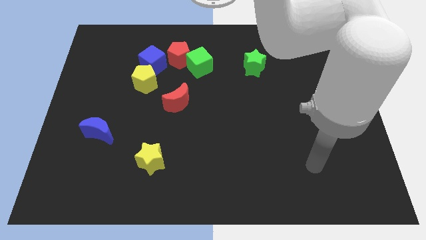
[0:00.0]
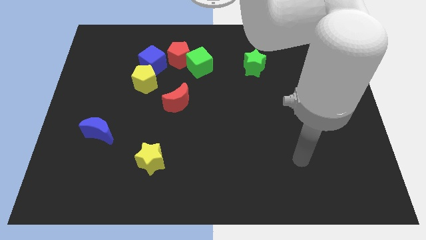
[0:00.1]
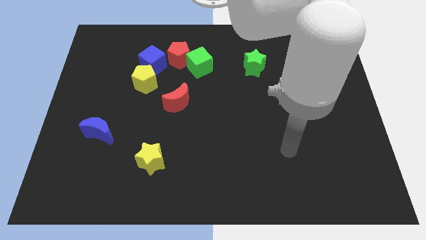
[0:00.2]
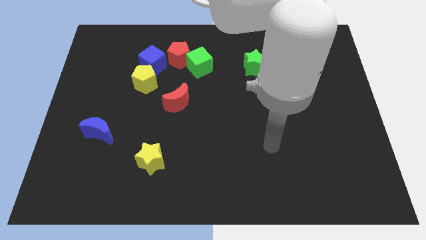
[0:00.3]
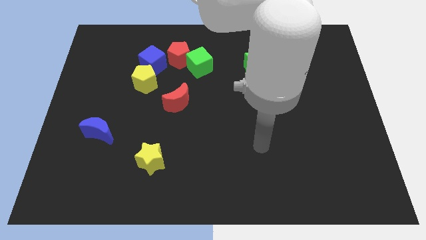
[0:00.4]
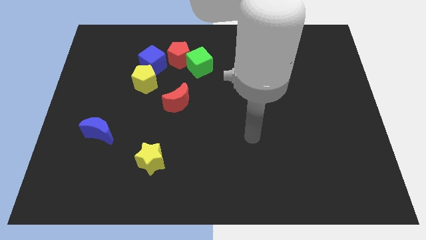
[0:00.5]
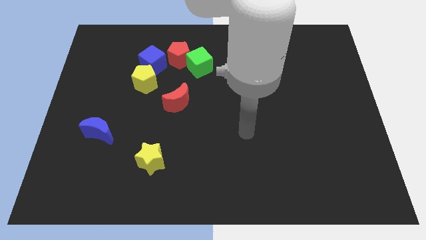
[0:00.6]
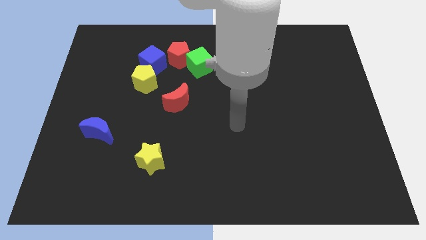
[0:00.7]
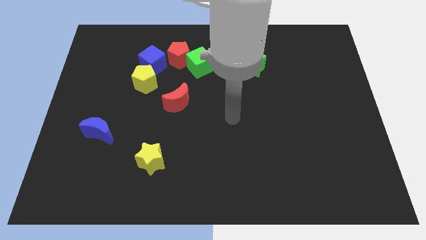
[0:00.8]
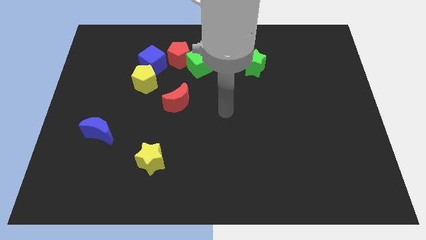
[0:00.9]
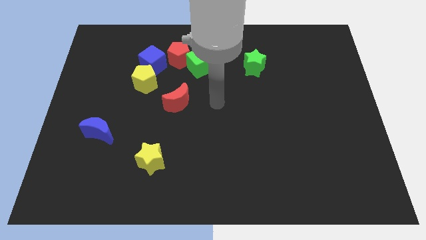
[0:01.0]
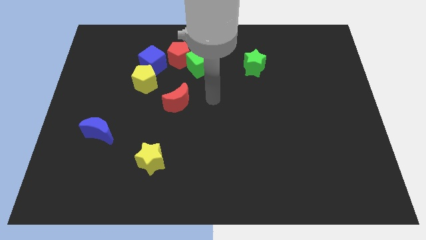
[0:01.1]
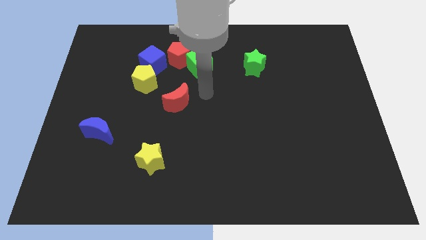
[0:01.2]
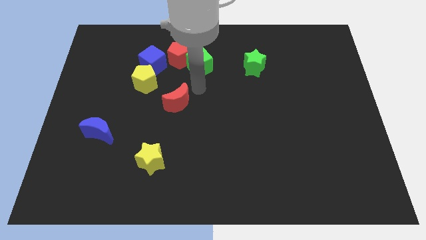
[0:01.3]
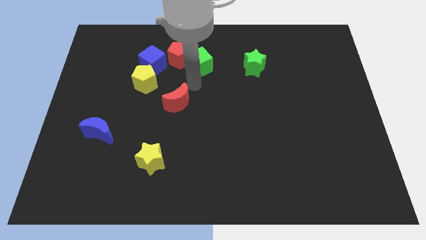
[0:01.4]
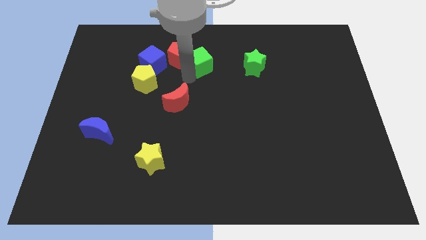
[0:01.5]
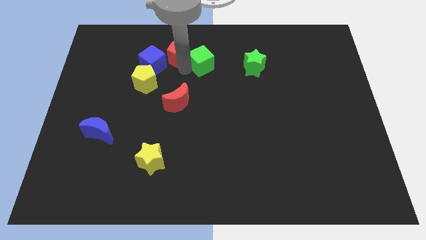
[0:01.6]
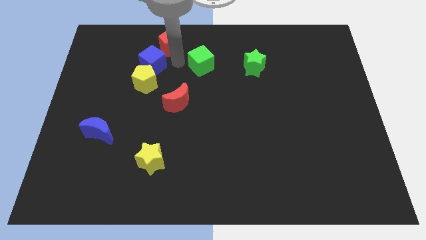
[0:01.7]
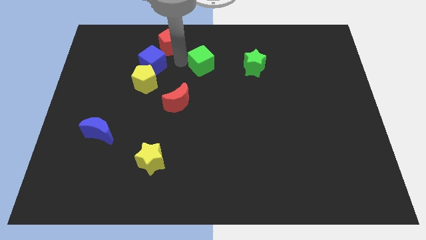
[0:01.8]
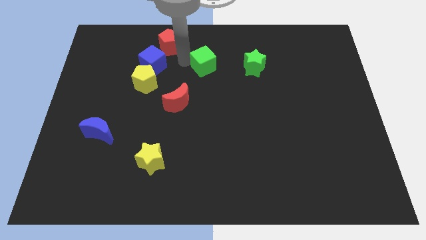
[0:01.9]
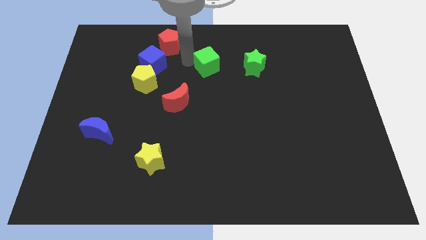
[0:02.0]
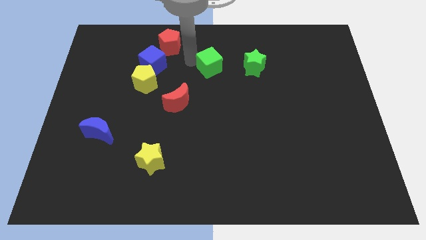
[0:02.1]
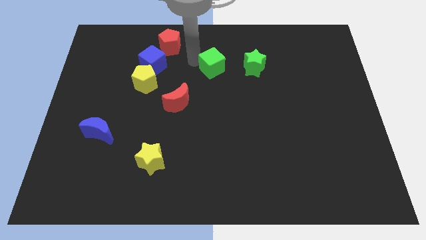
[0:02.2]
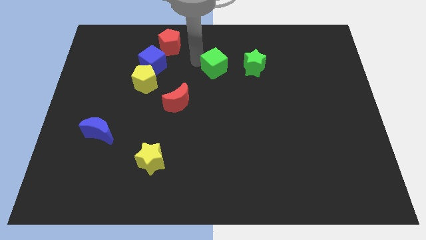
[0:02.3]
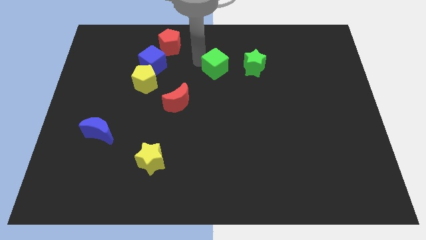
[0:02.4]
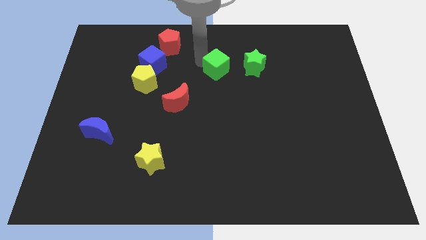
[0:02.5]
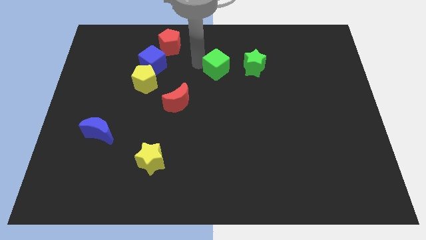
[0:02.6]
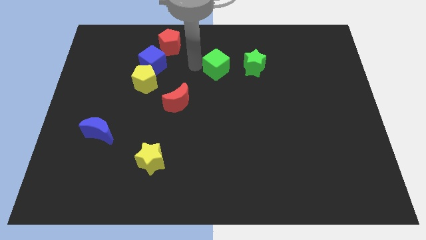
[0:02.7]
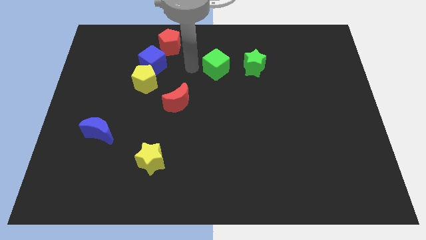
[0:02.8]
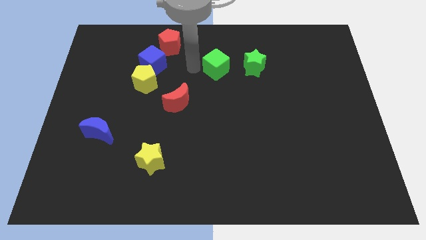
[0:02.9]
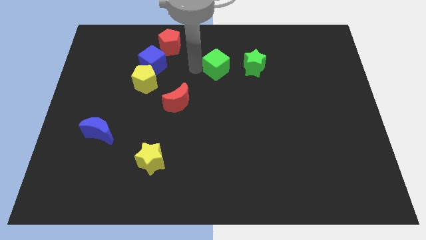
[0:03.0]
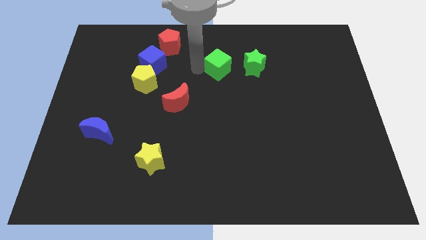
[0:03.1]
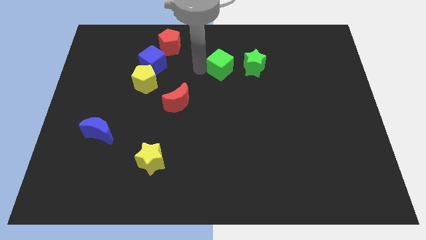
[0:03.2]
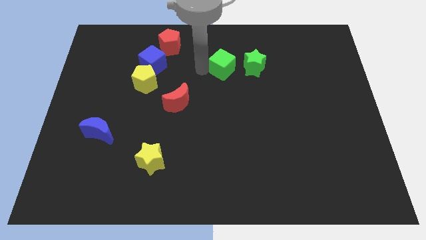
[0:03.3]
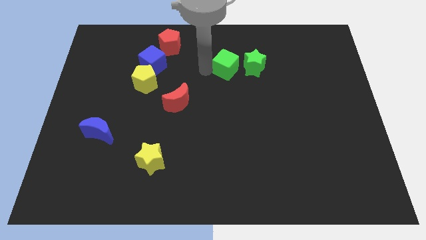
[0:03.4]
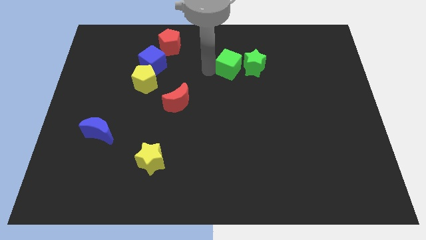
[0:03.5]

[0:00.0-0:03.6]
slide the green cube close to the green star

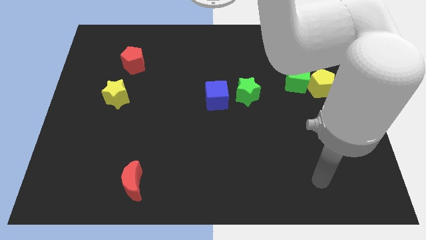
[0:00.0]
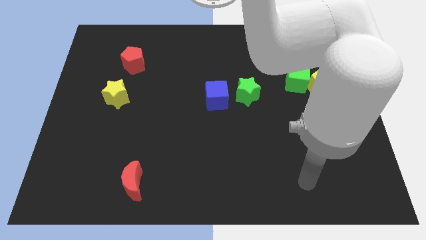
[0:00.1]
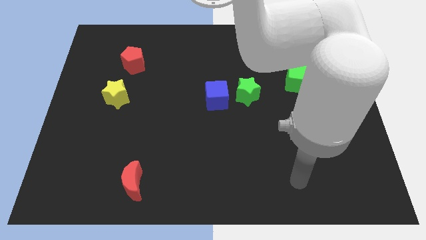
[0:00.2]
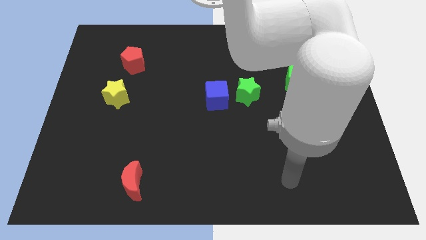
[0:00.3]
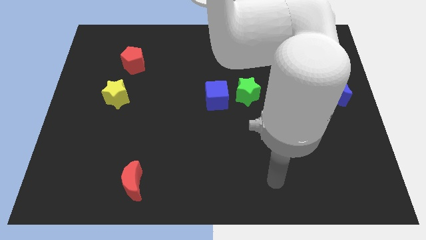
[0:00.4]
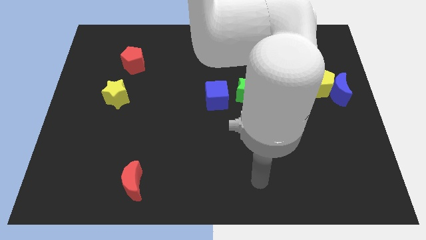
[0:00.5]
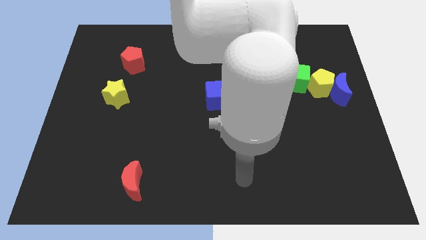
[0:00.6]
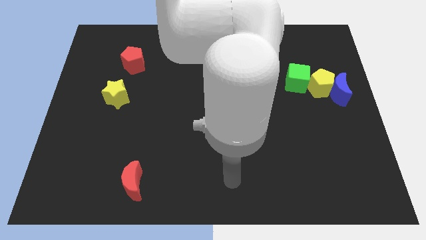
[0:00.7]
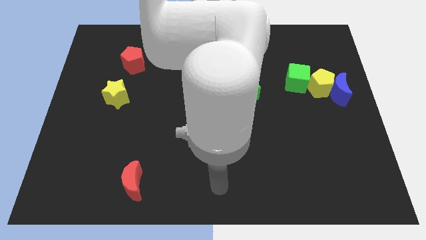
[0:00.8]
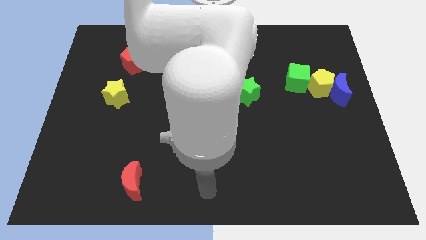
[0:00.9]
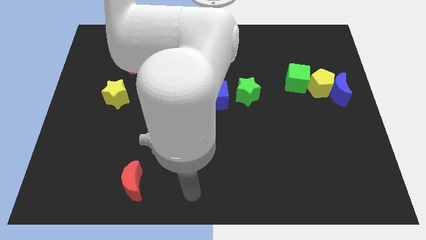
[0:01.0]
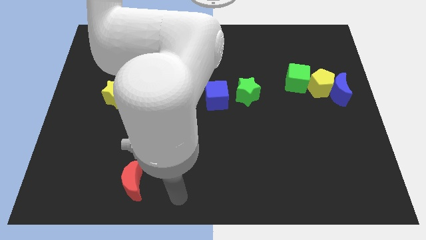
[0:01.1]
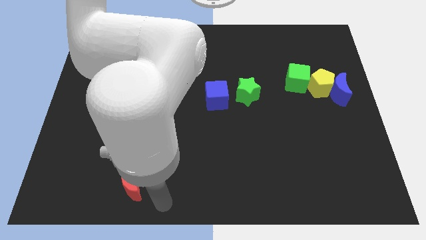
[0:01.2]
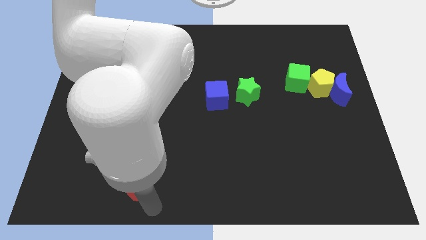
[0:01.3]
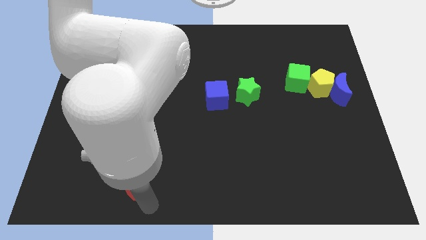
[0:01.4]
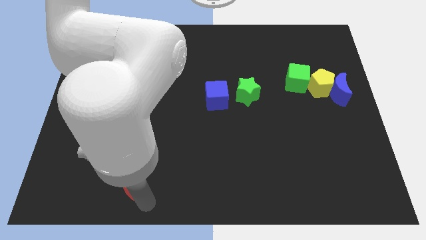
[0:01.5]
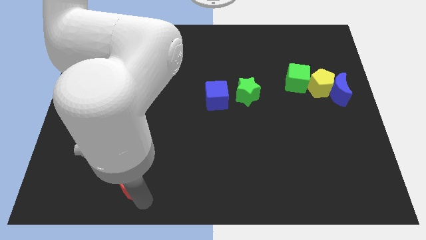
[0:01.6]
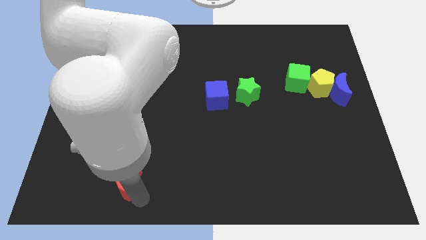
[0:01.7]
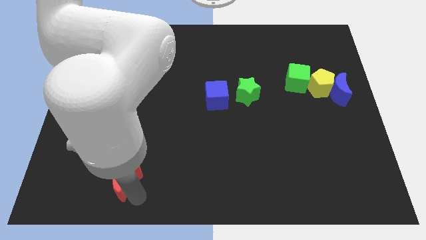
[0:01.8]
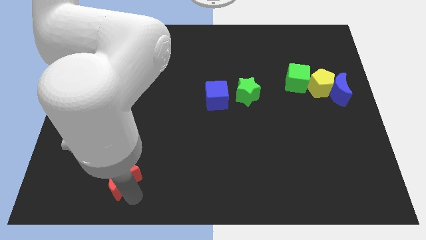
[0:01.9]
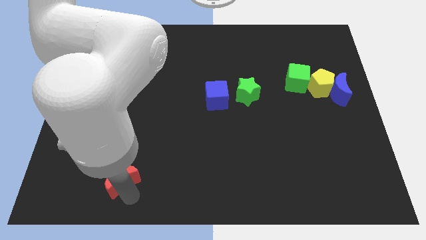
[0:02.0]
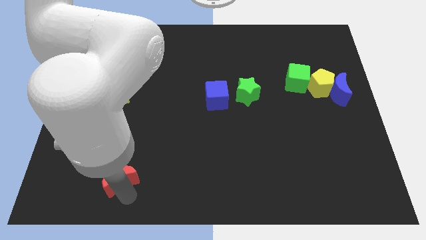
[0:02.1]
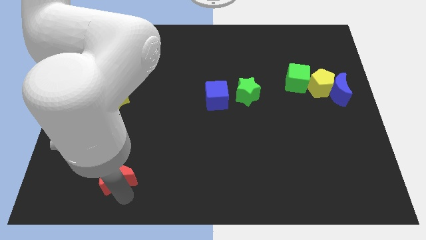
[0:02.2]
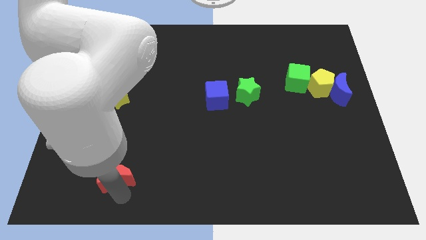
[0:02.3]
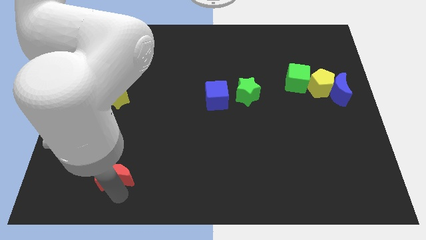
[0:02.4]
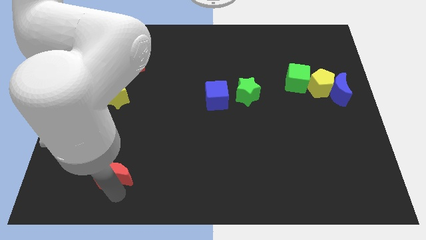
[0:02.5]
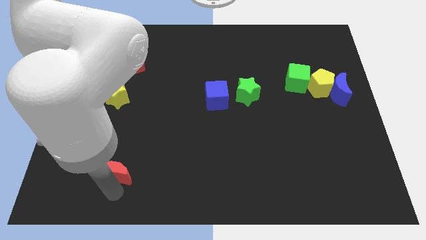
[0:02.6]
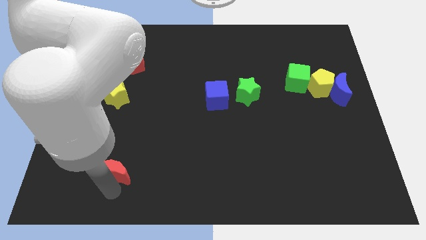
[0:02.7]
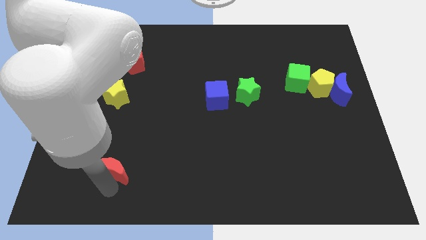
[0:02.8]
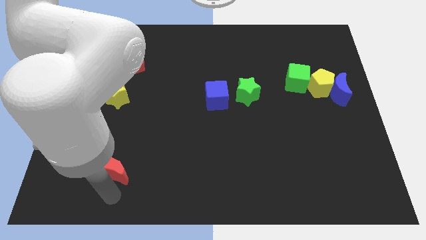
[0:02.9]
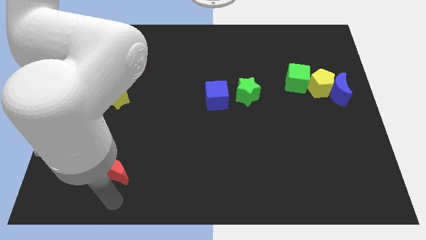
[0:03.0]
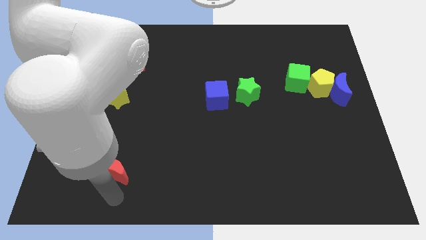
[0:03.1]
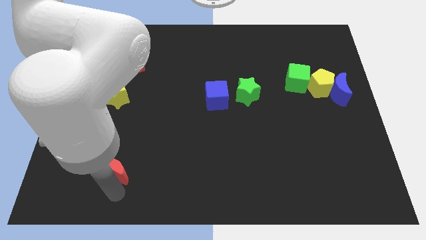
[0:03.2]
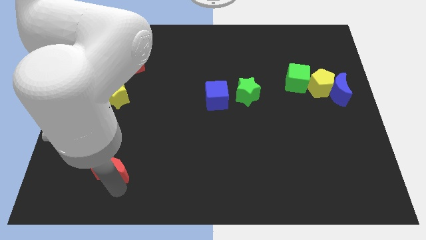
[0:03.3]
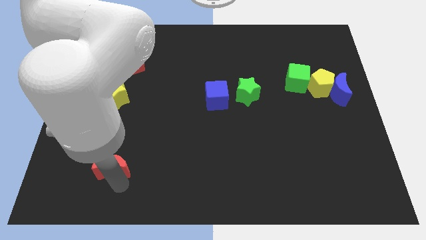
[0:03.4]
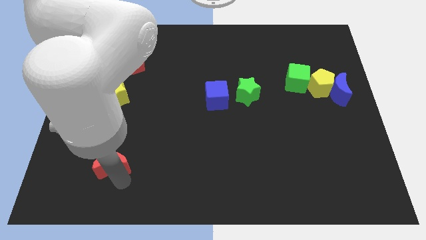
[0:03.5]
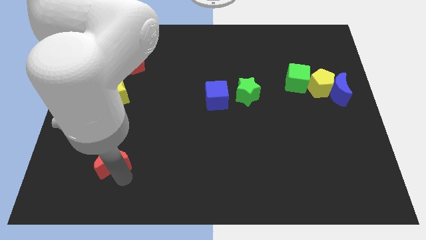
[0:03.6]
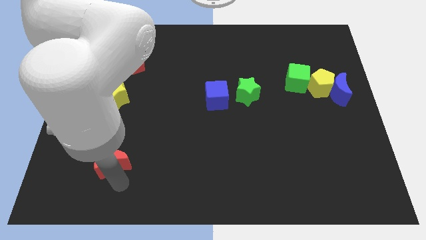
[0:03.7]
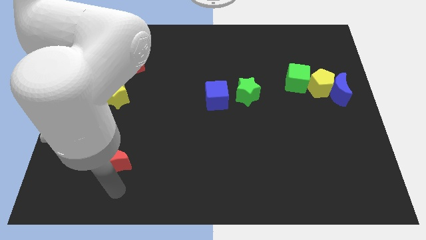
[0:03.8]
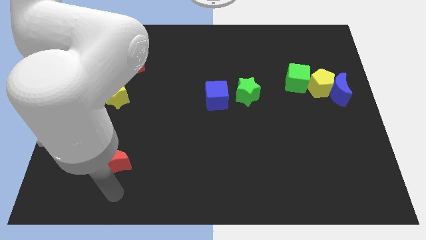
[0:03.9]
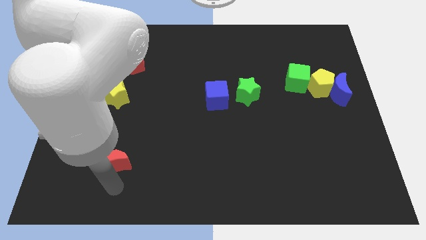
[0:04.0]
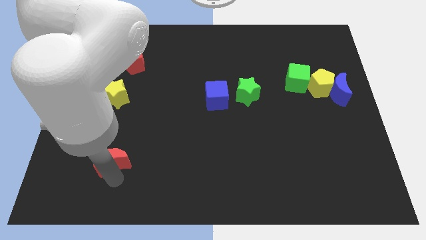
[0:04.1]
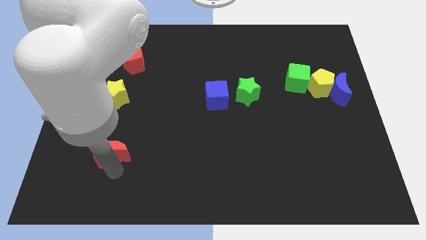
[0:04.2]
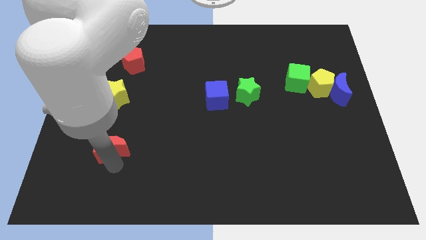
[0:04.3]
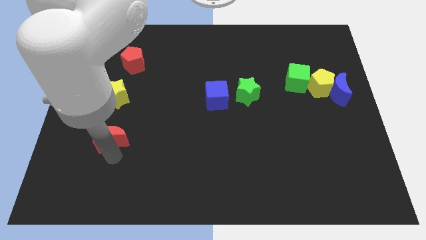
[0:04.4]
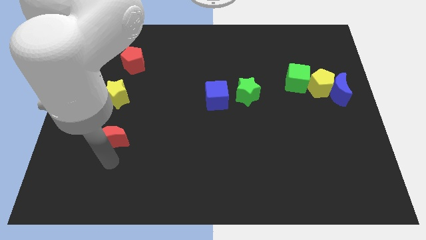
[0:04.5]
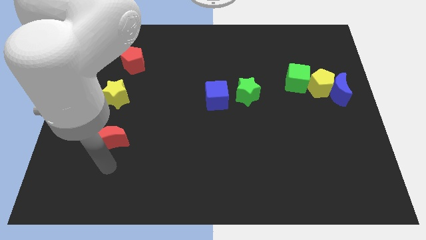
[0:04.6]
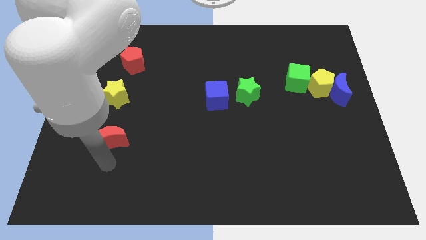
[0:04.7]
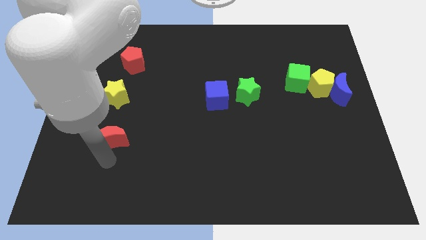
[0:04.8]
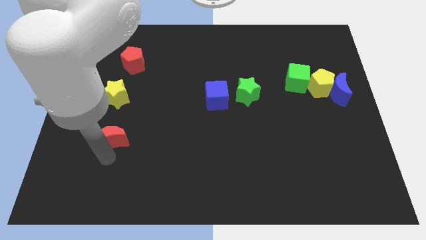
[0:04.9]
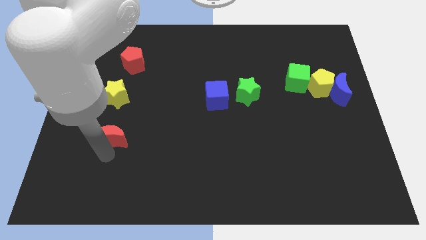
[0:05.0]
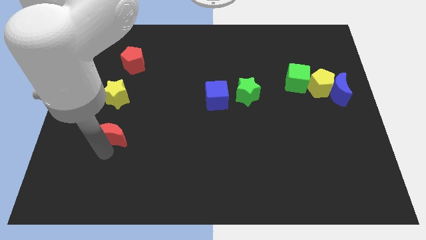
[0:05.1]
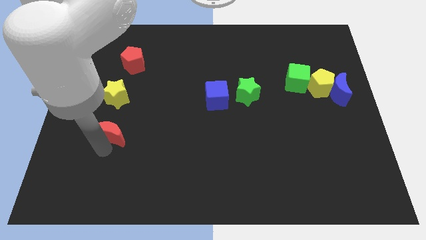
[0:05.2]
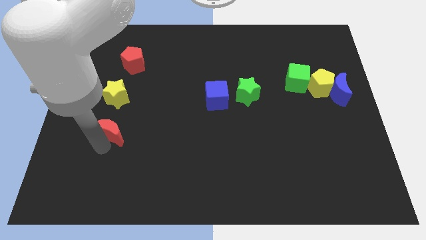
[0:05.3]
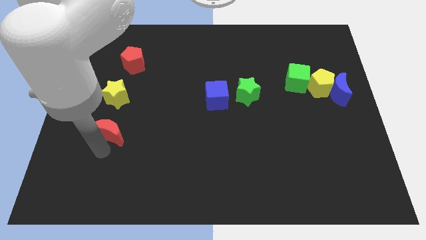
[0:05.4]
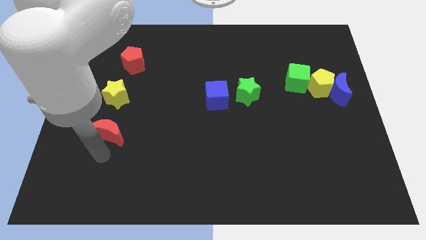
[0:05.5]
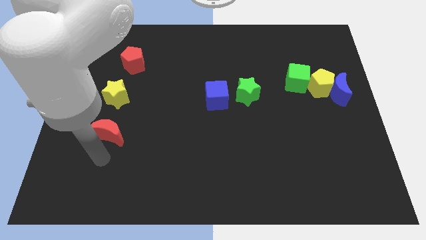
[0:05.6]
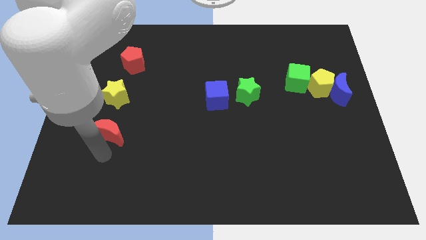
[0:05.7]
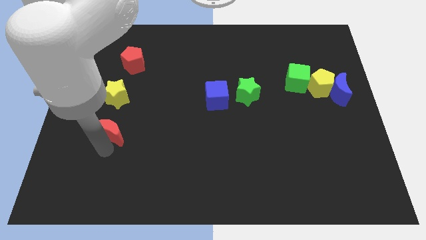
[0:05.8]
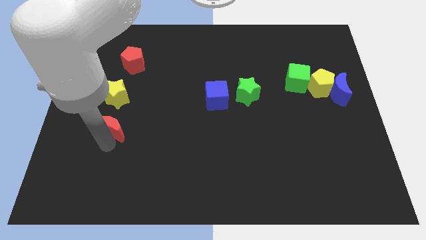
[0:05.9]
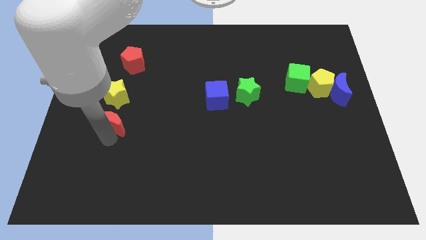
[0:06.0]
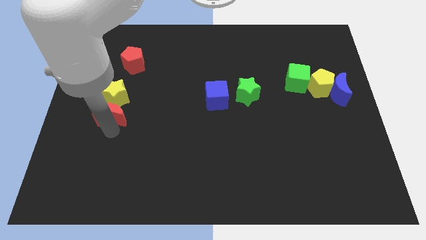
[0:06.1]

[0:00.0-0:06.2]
move the red moon towards the yellow star
